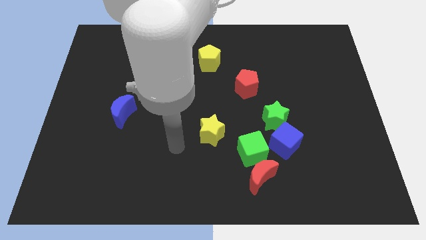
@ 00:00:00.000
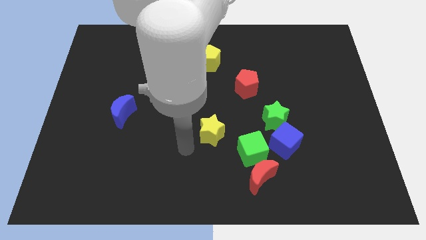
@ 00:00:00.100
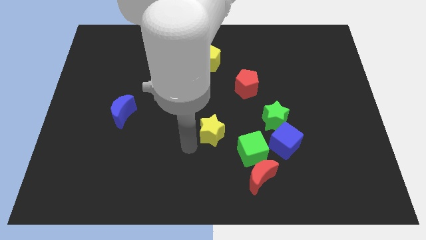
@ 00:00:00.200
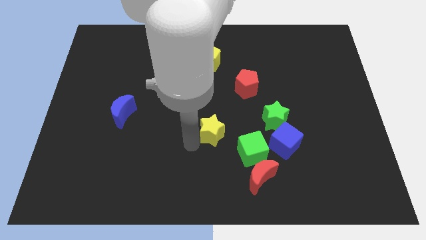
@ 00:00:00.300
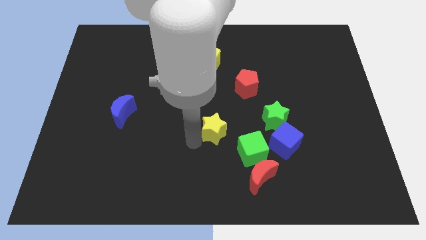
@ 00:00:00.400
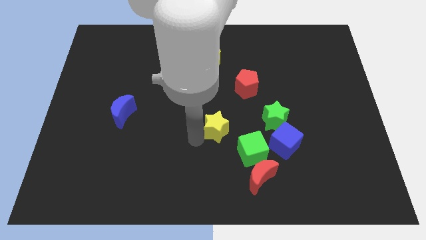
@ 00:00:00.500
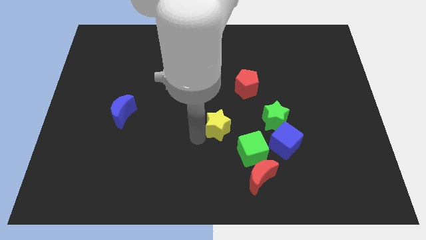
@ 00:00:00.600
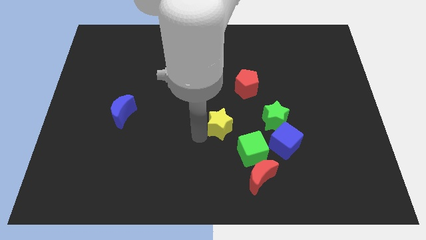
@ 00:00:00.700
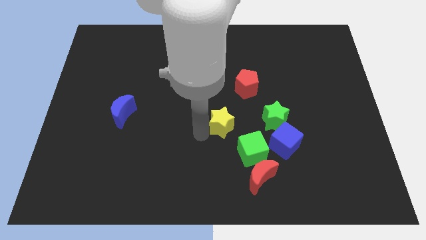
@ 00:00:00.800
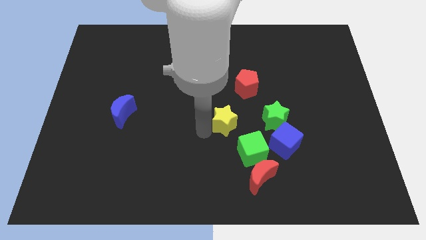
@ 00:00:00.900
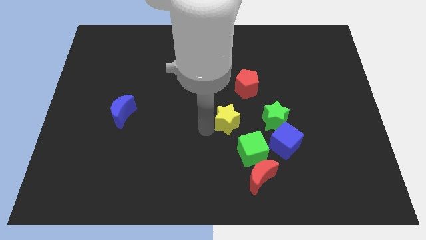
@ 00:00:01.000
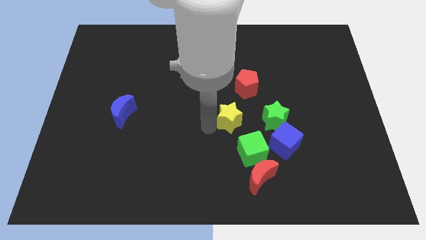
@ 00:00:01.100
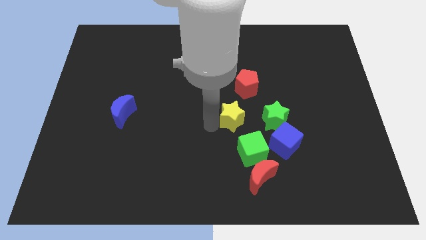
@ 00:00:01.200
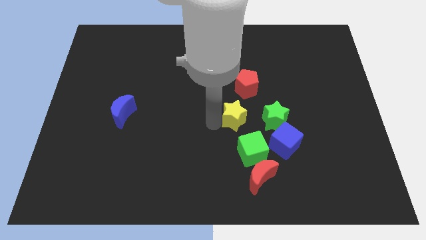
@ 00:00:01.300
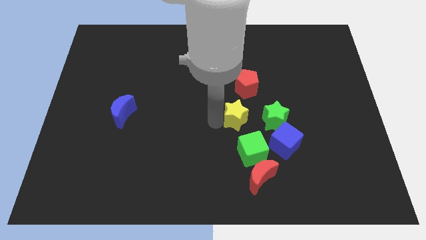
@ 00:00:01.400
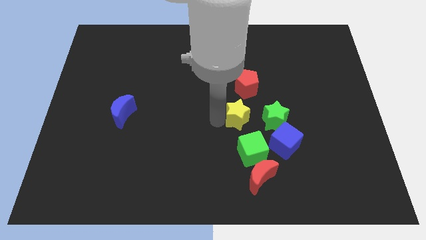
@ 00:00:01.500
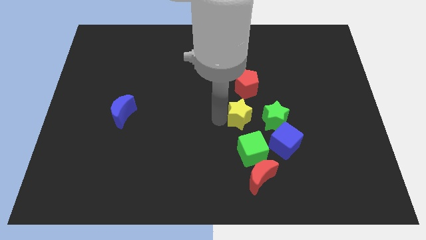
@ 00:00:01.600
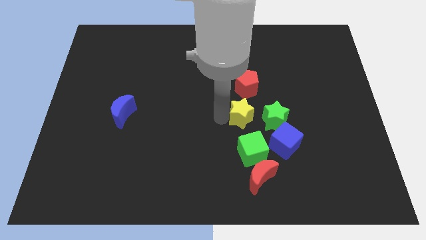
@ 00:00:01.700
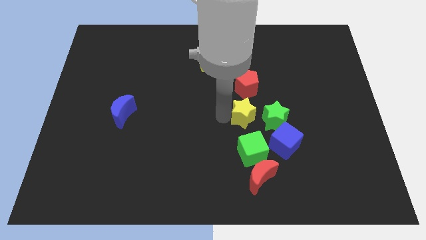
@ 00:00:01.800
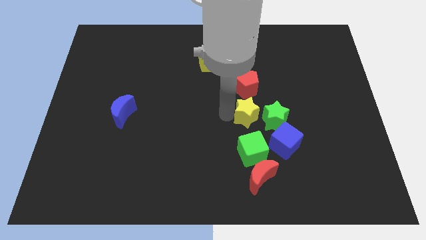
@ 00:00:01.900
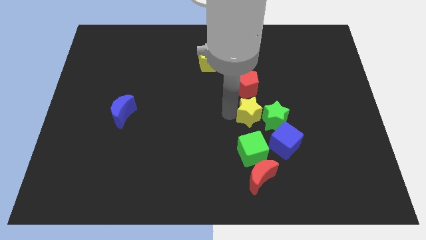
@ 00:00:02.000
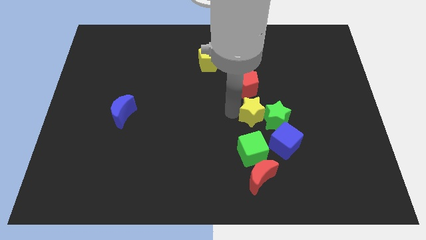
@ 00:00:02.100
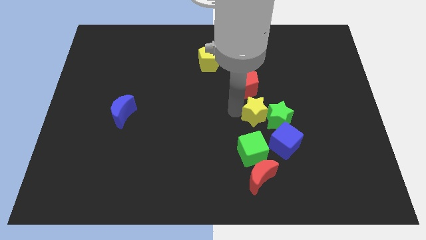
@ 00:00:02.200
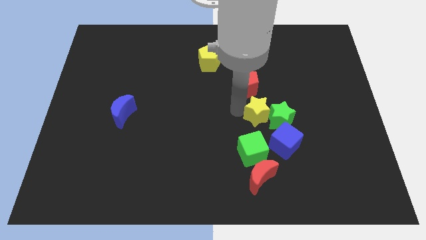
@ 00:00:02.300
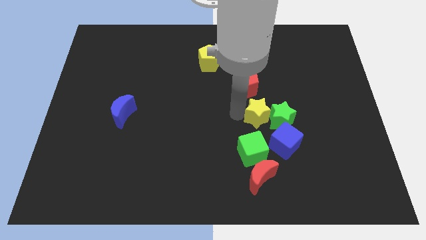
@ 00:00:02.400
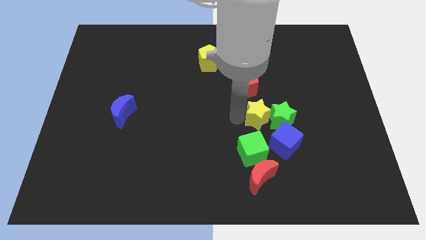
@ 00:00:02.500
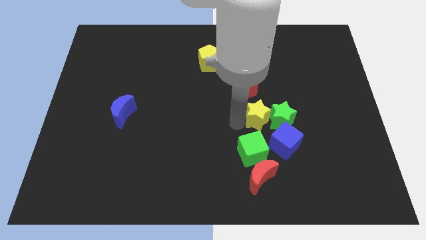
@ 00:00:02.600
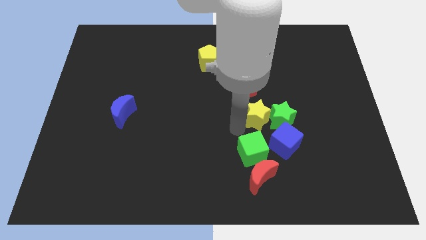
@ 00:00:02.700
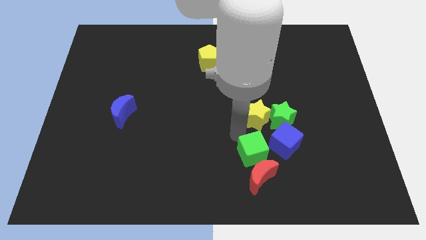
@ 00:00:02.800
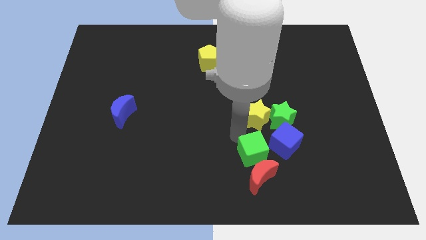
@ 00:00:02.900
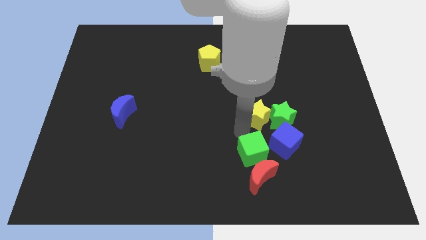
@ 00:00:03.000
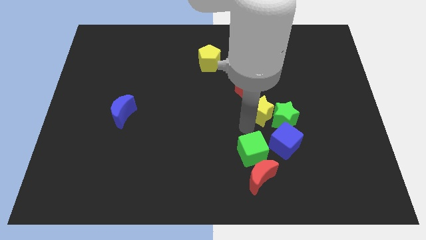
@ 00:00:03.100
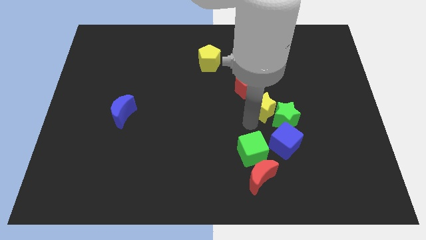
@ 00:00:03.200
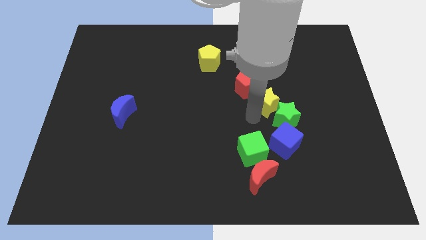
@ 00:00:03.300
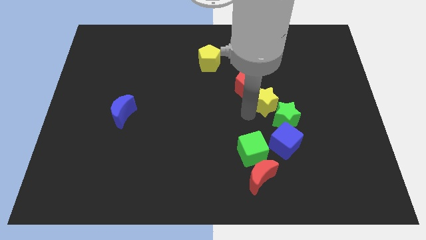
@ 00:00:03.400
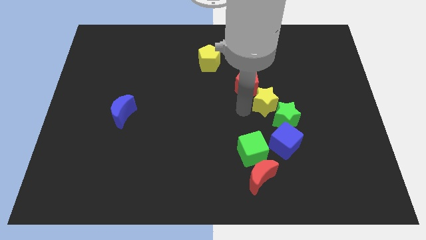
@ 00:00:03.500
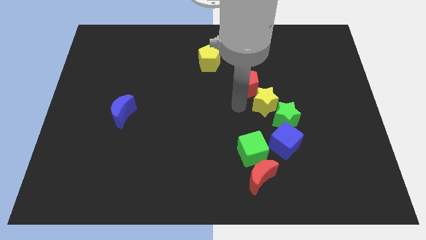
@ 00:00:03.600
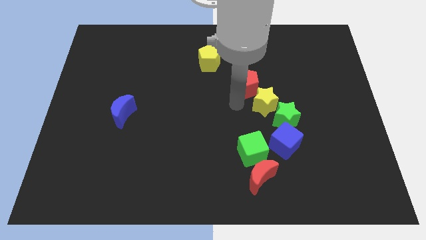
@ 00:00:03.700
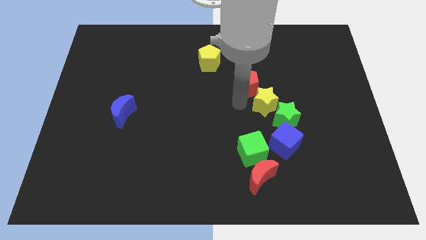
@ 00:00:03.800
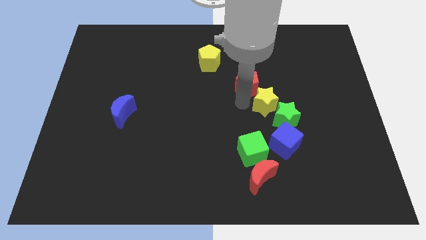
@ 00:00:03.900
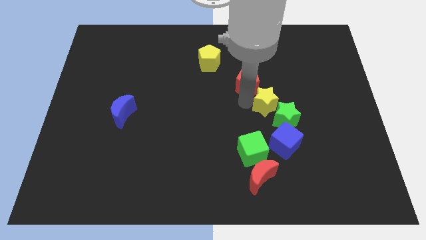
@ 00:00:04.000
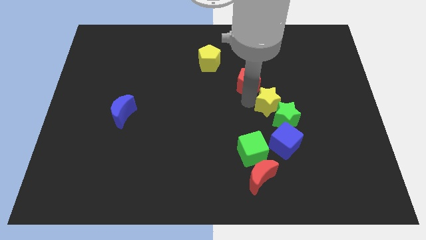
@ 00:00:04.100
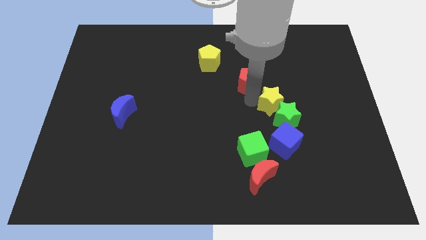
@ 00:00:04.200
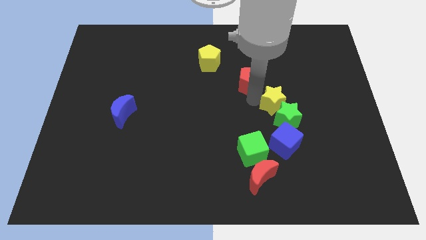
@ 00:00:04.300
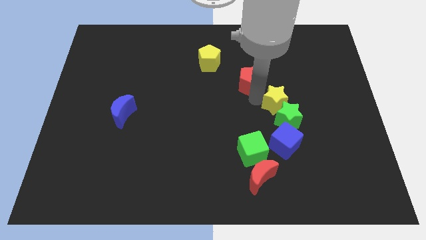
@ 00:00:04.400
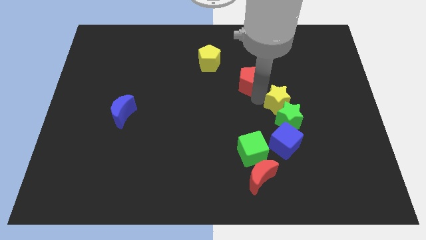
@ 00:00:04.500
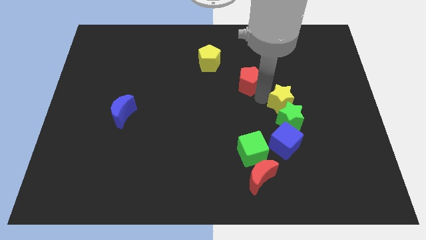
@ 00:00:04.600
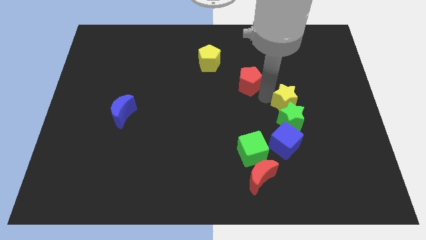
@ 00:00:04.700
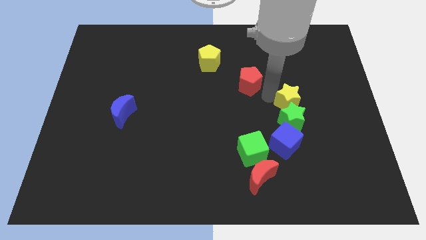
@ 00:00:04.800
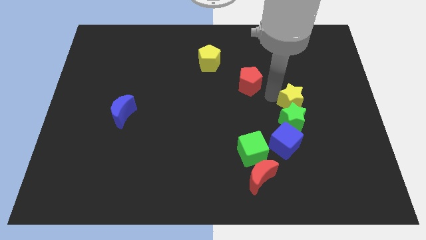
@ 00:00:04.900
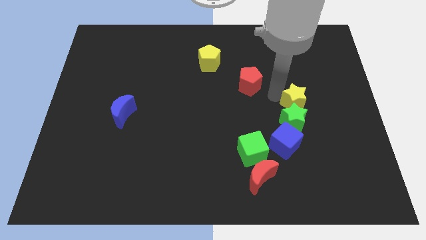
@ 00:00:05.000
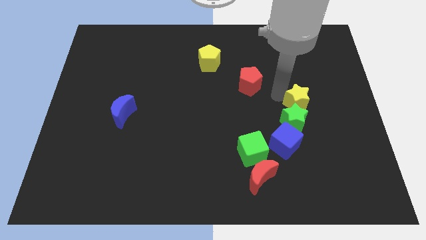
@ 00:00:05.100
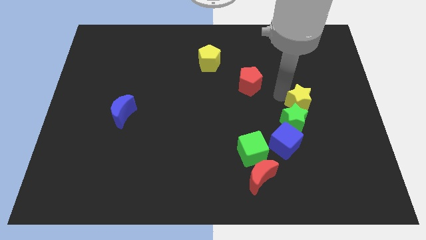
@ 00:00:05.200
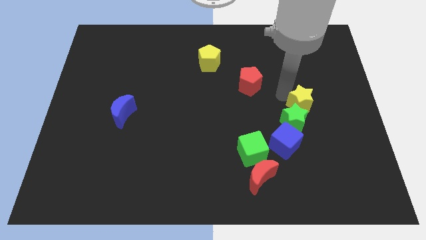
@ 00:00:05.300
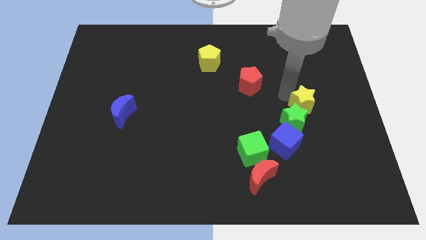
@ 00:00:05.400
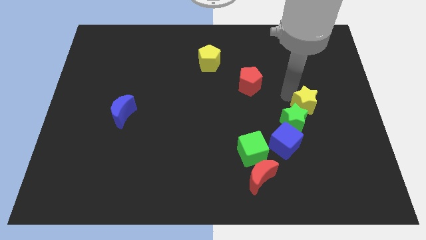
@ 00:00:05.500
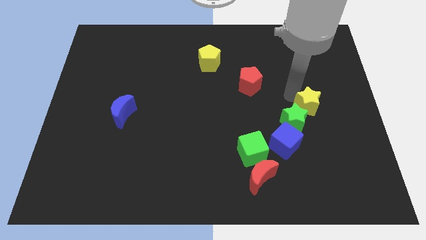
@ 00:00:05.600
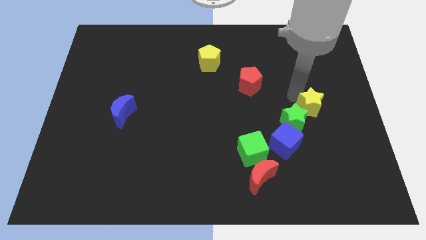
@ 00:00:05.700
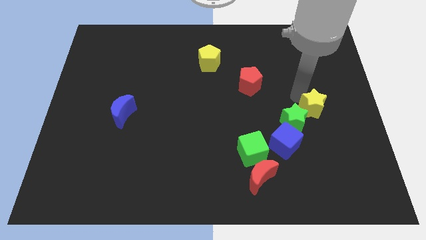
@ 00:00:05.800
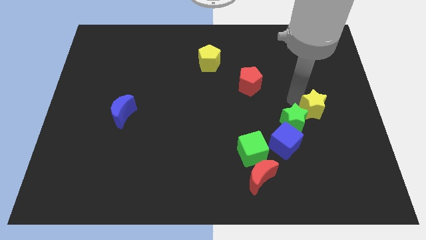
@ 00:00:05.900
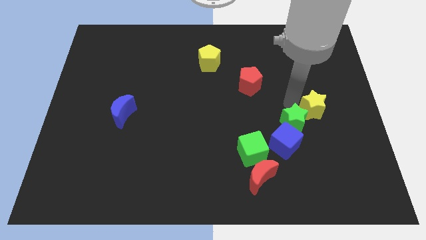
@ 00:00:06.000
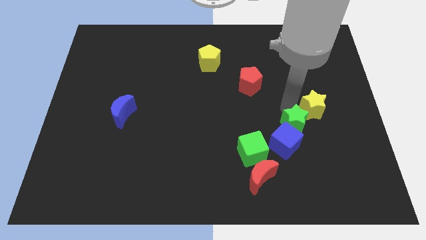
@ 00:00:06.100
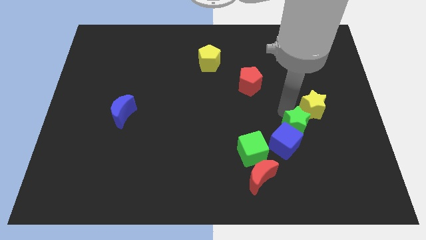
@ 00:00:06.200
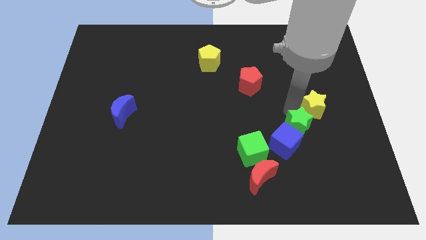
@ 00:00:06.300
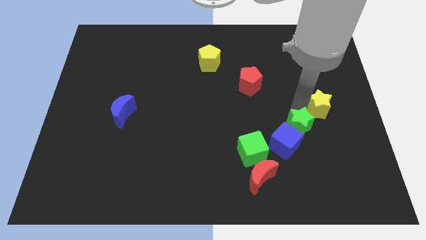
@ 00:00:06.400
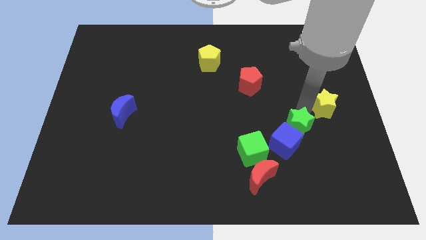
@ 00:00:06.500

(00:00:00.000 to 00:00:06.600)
put the yellow star to the right side of the board
